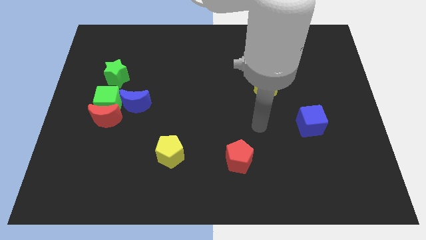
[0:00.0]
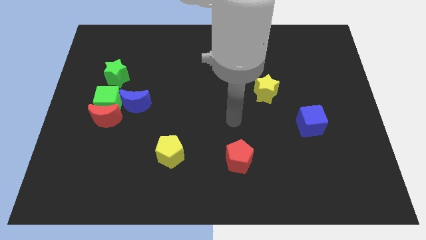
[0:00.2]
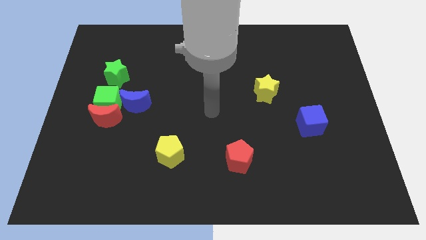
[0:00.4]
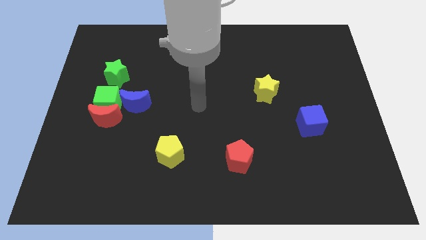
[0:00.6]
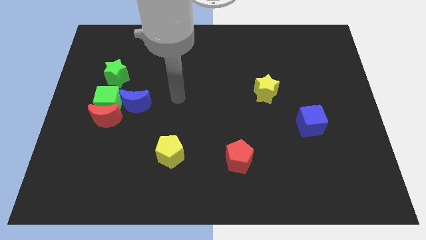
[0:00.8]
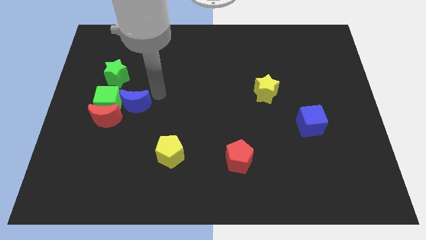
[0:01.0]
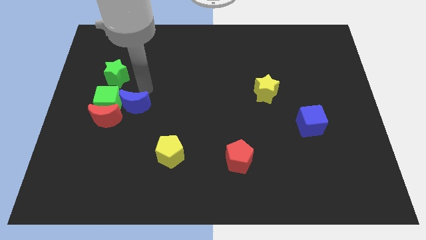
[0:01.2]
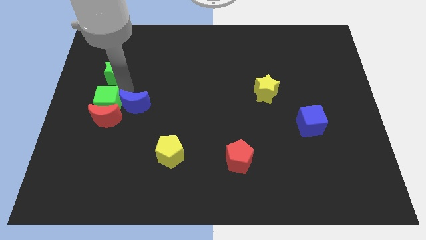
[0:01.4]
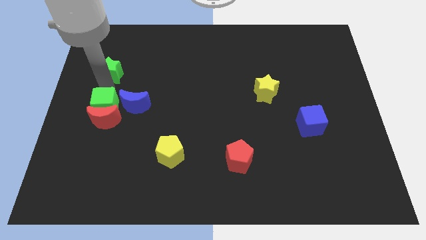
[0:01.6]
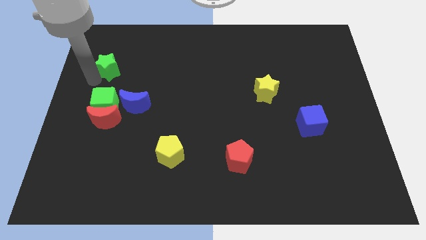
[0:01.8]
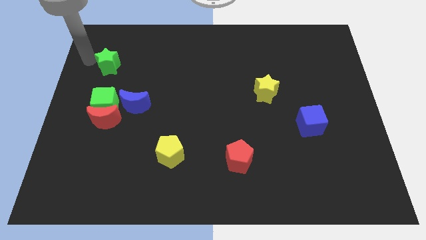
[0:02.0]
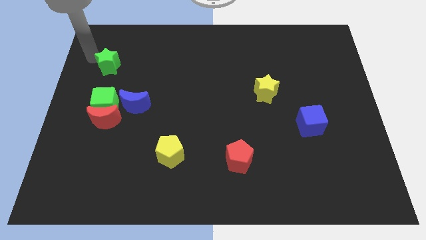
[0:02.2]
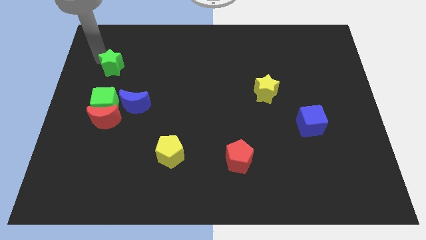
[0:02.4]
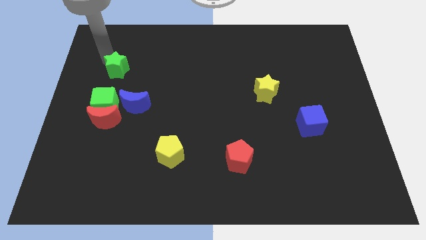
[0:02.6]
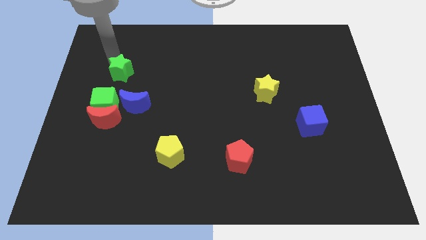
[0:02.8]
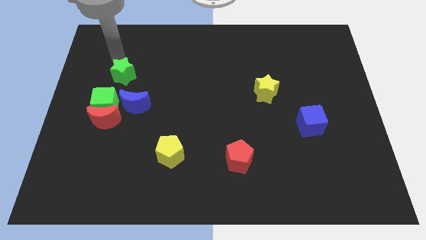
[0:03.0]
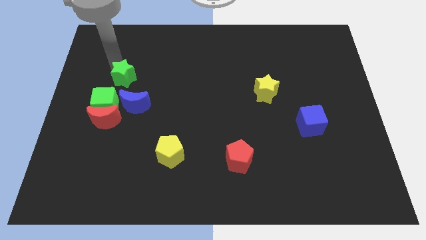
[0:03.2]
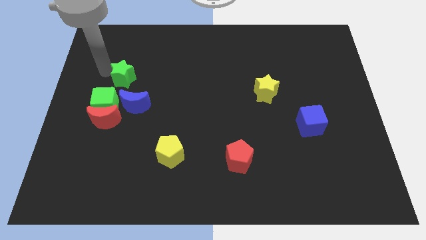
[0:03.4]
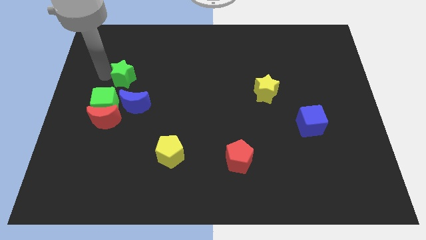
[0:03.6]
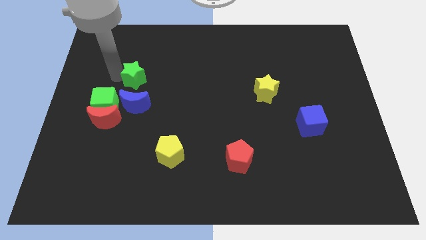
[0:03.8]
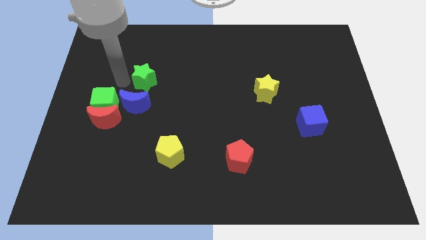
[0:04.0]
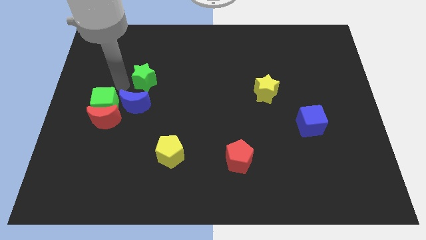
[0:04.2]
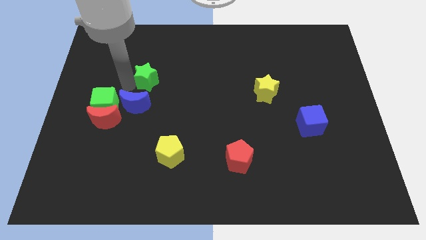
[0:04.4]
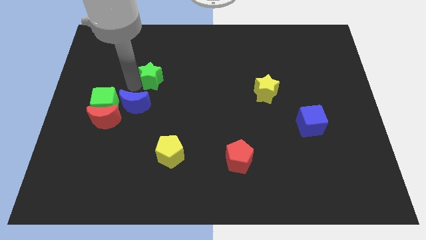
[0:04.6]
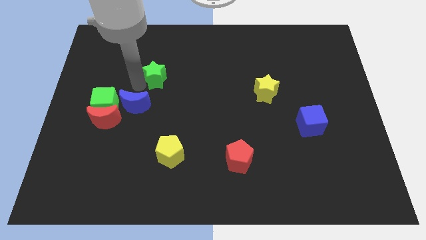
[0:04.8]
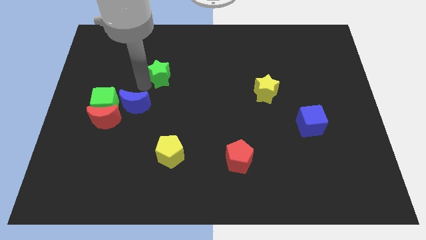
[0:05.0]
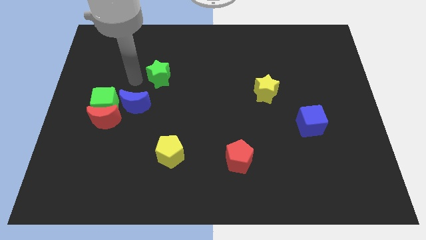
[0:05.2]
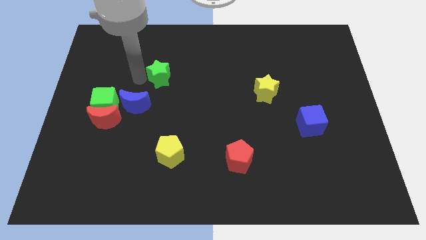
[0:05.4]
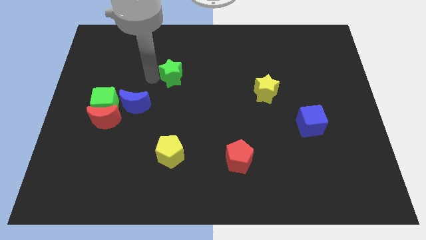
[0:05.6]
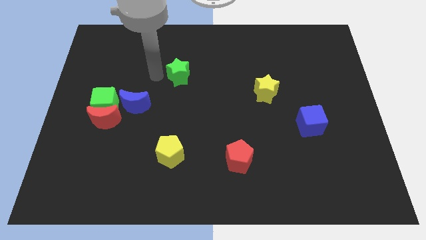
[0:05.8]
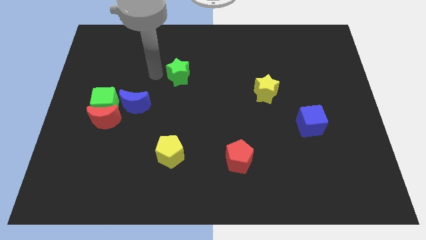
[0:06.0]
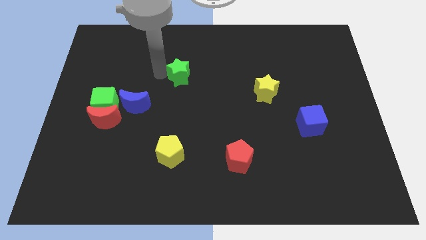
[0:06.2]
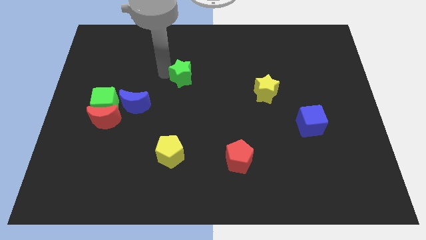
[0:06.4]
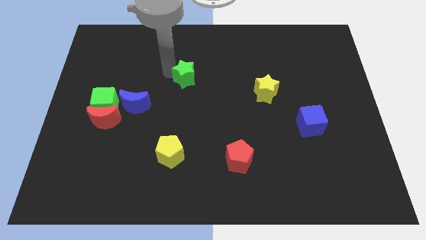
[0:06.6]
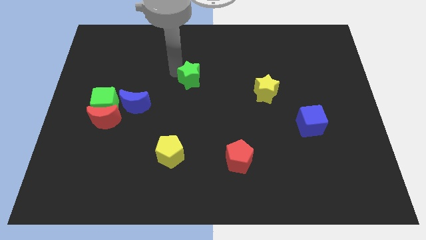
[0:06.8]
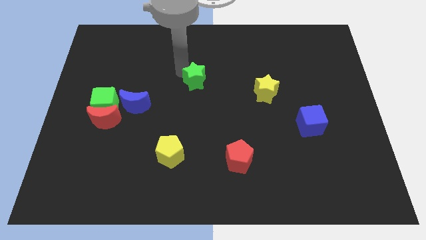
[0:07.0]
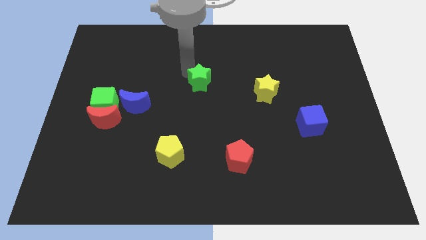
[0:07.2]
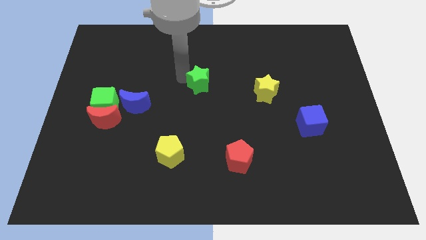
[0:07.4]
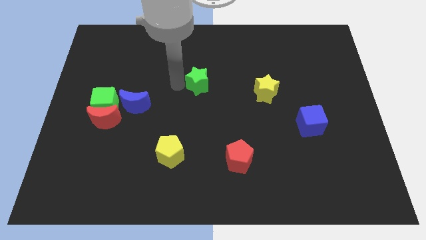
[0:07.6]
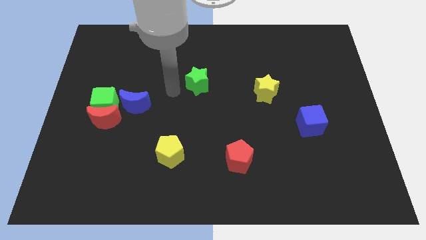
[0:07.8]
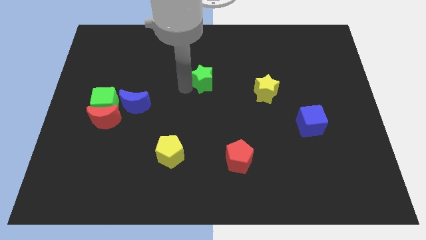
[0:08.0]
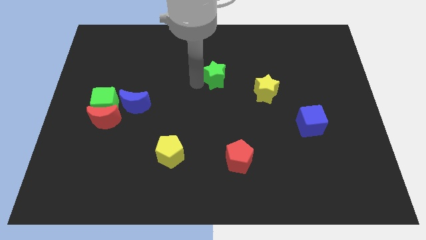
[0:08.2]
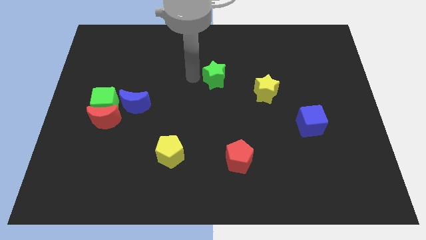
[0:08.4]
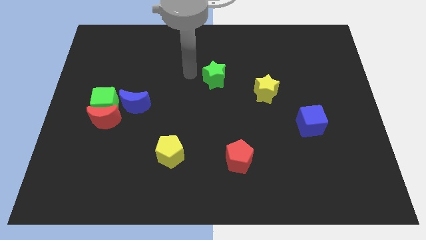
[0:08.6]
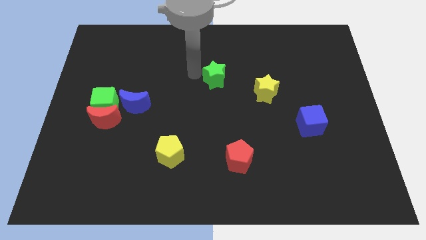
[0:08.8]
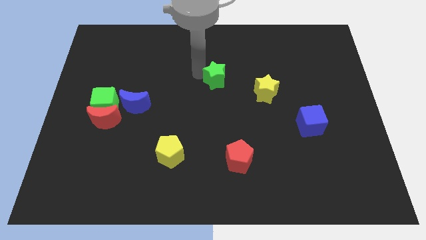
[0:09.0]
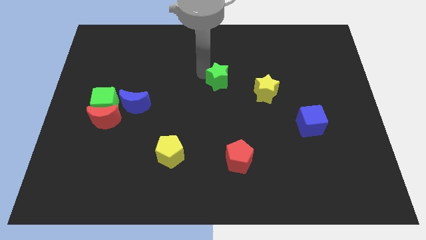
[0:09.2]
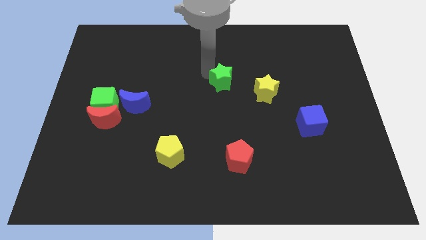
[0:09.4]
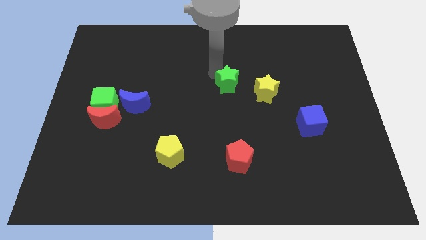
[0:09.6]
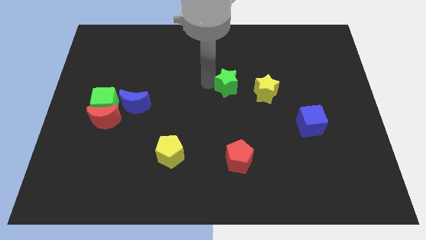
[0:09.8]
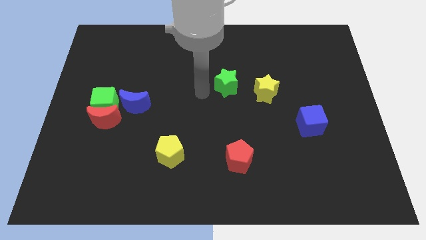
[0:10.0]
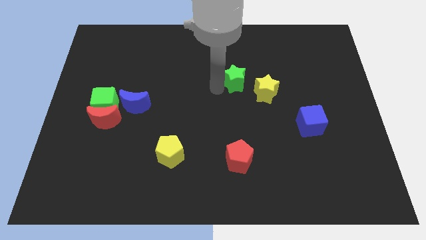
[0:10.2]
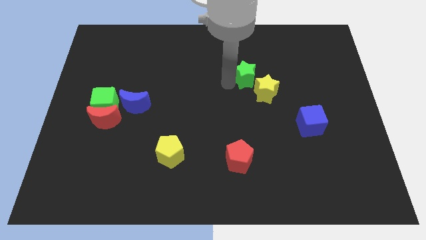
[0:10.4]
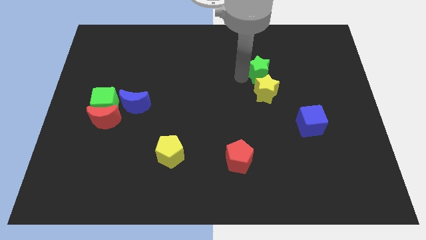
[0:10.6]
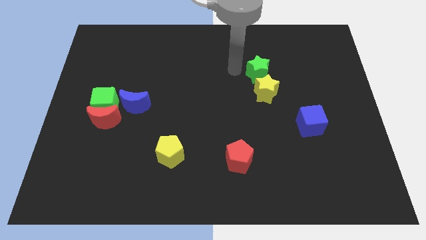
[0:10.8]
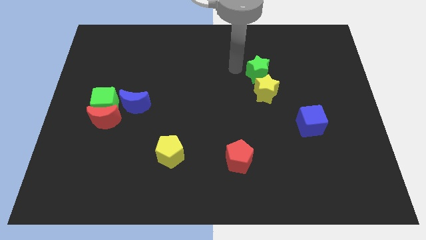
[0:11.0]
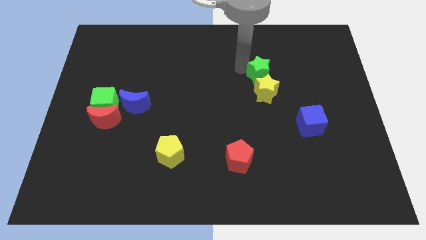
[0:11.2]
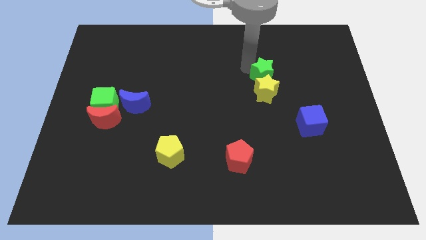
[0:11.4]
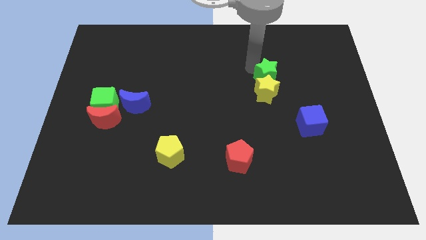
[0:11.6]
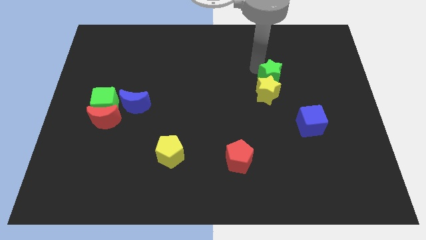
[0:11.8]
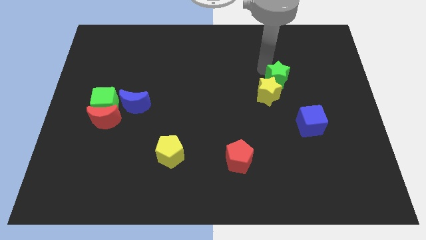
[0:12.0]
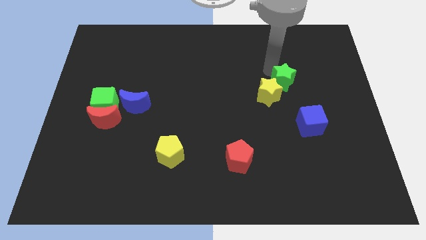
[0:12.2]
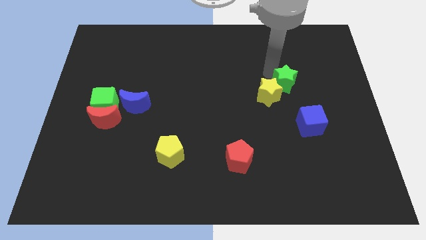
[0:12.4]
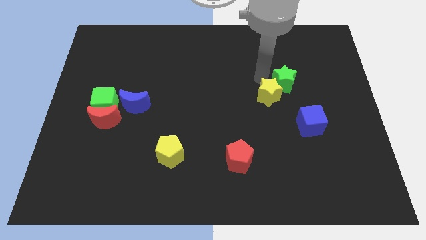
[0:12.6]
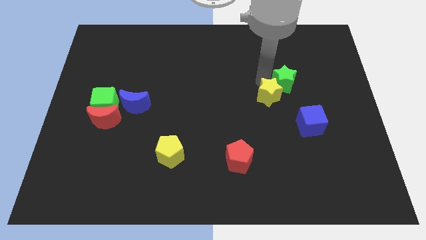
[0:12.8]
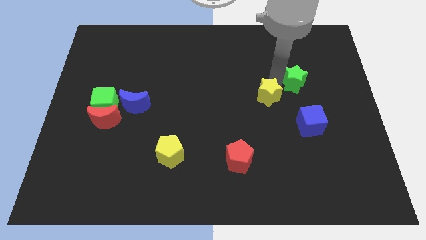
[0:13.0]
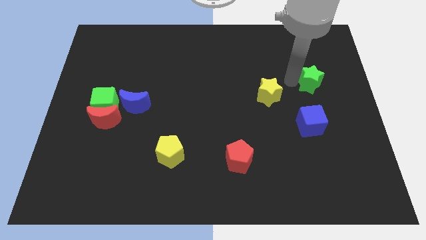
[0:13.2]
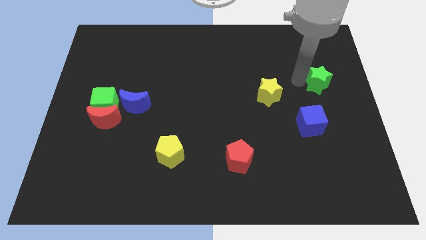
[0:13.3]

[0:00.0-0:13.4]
push the green star to the right side of the board
